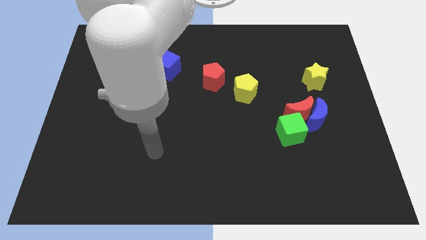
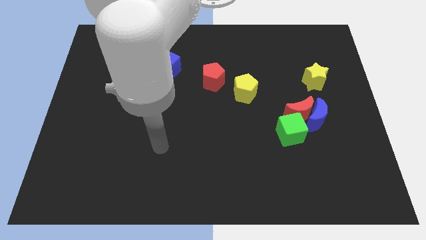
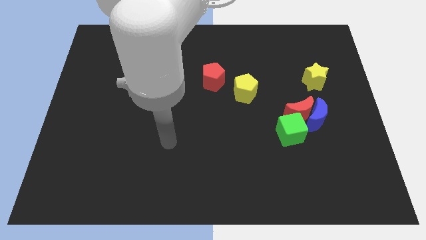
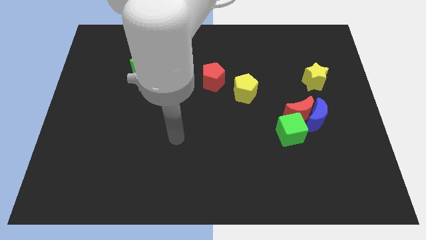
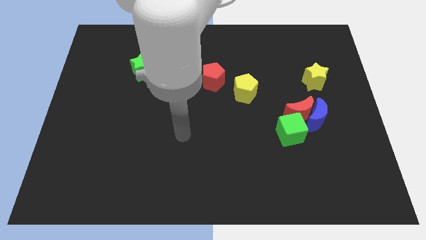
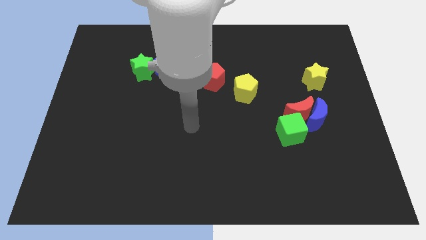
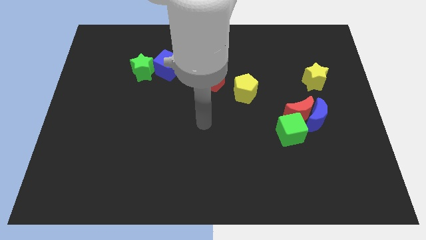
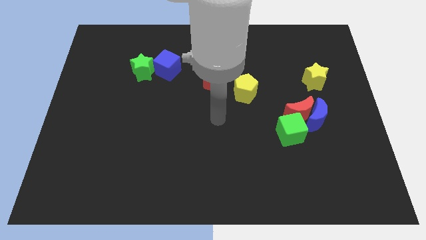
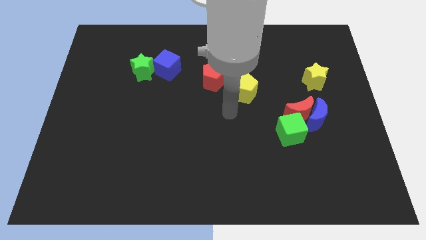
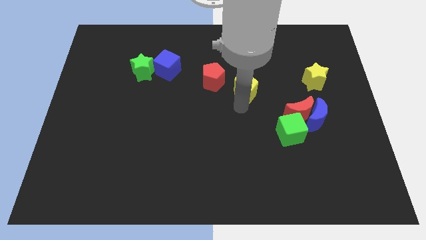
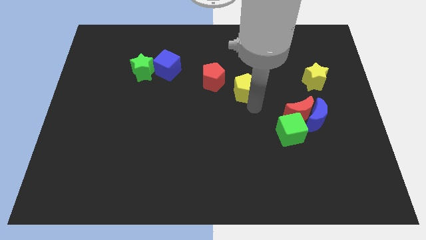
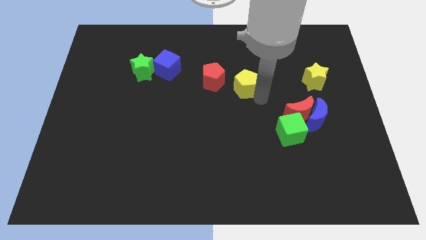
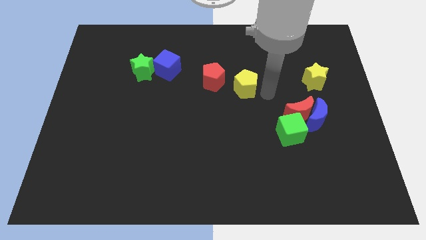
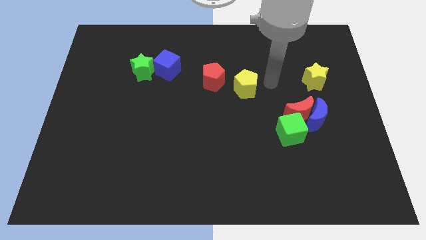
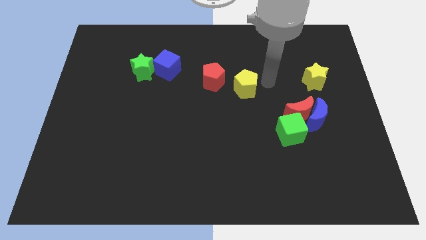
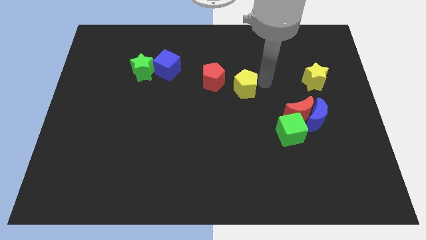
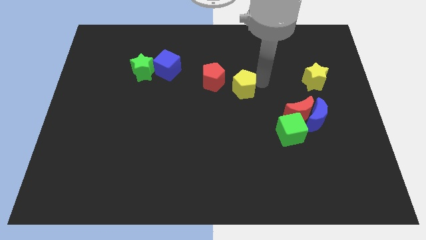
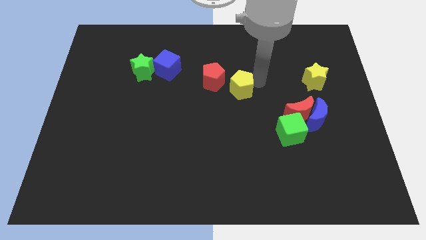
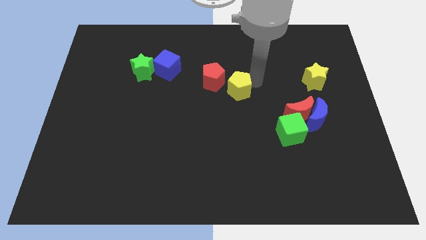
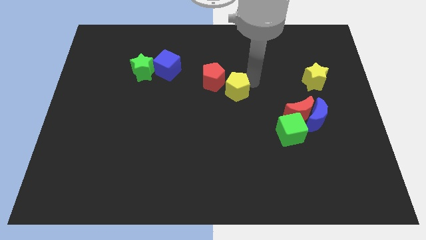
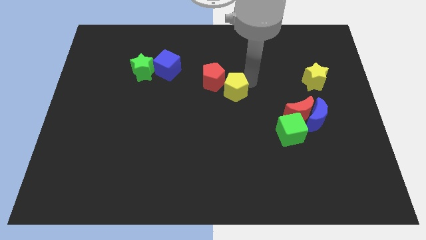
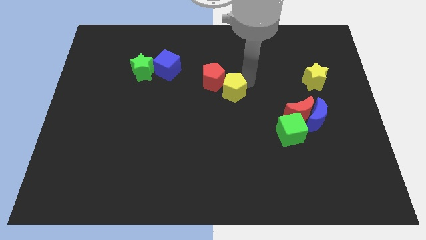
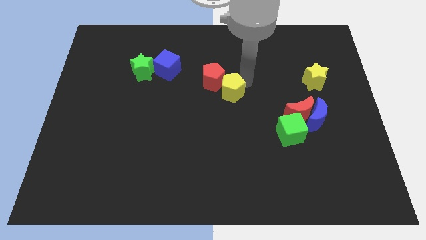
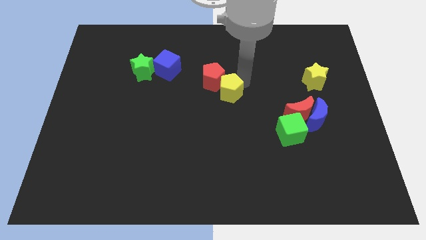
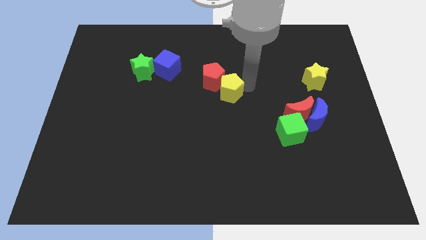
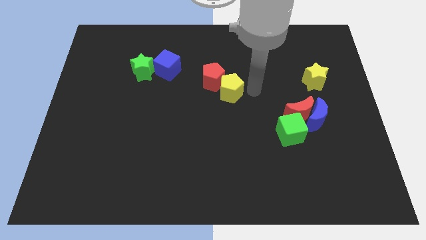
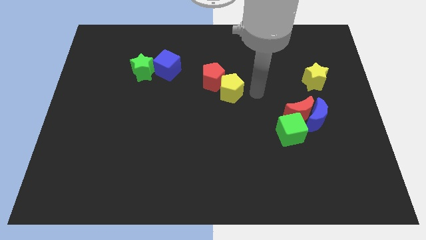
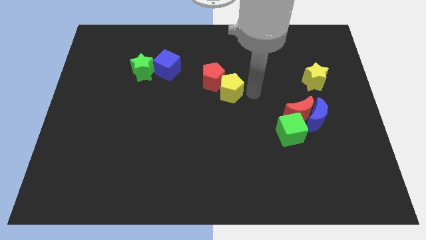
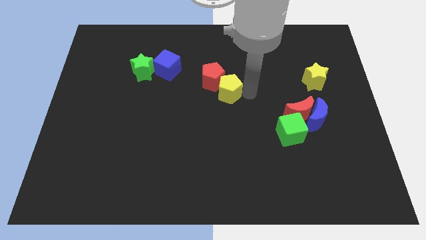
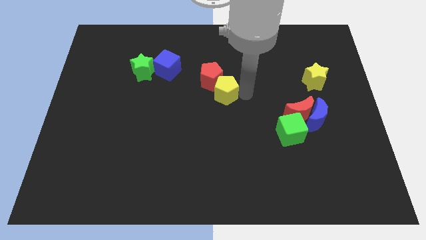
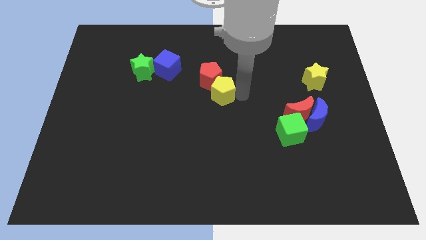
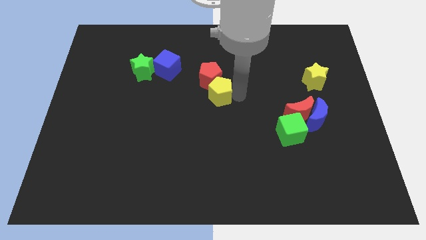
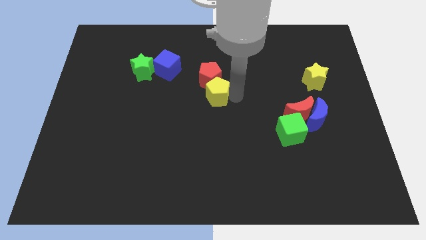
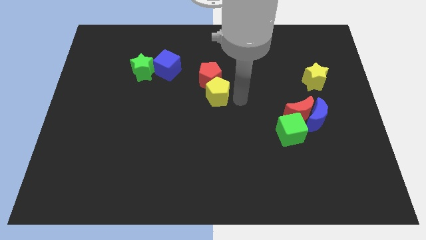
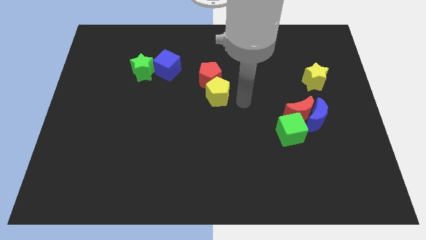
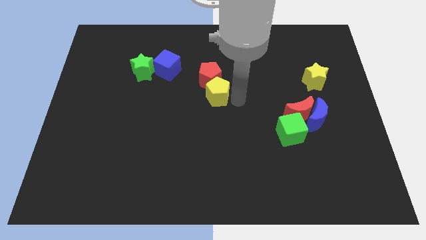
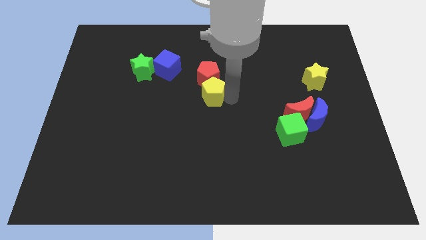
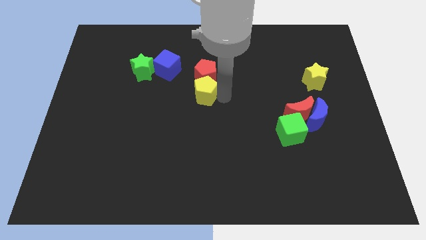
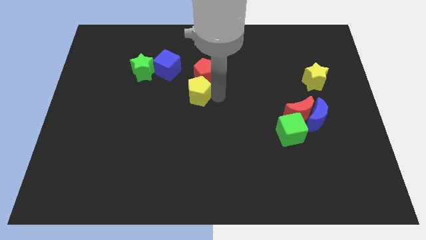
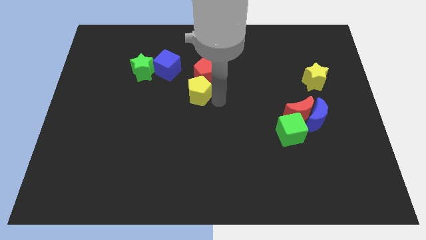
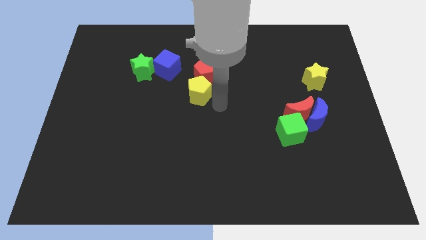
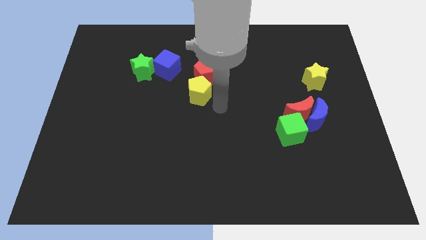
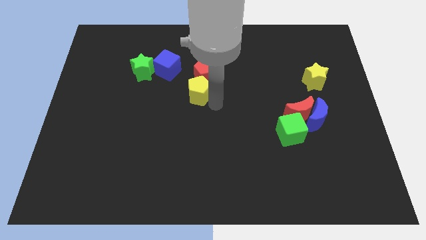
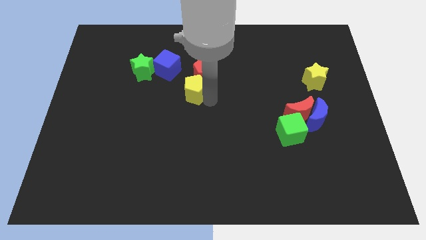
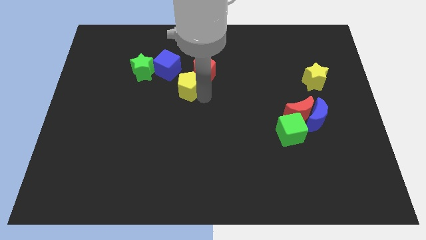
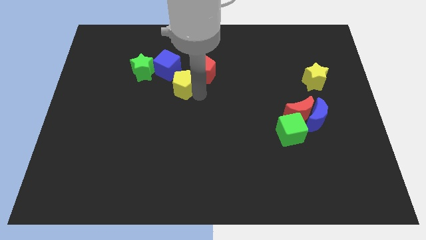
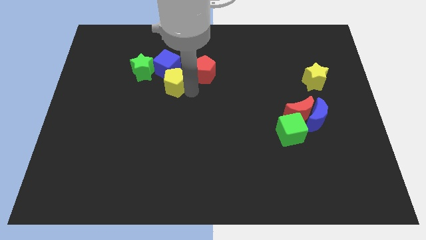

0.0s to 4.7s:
slide the yellow pentagon next to the blue cube

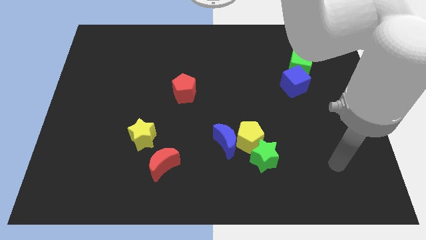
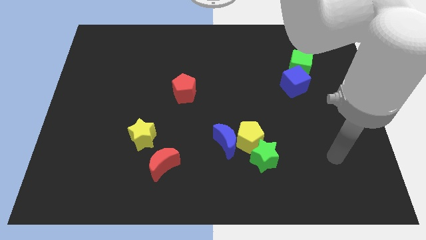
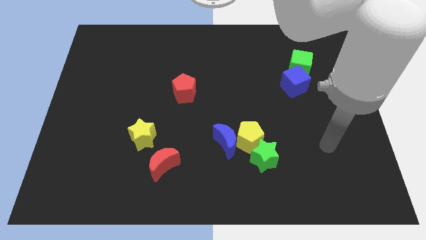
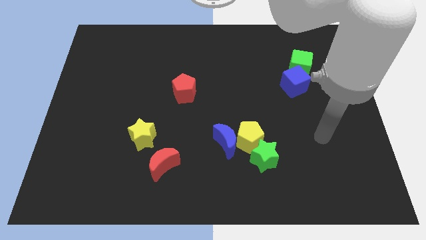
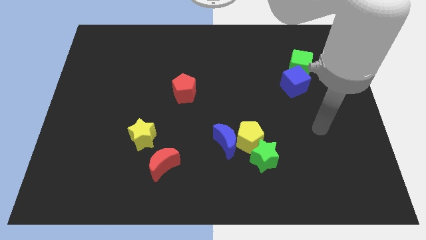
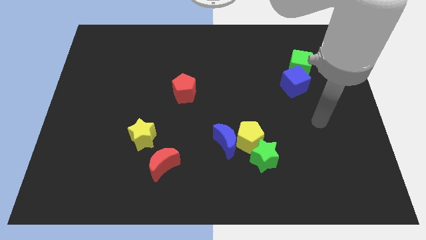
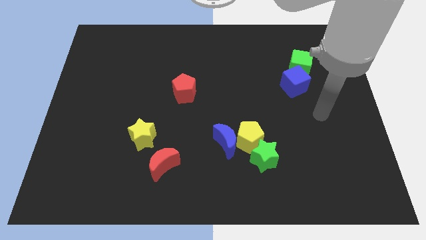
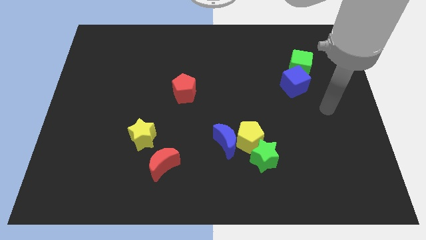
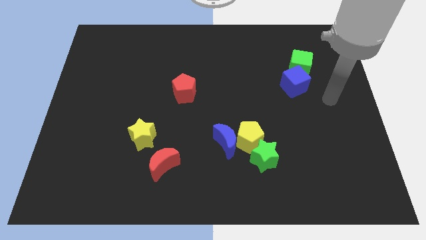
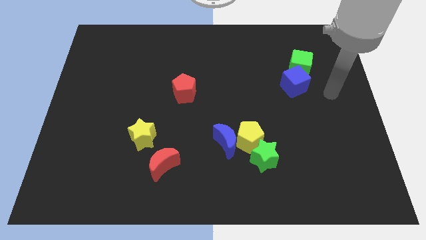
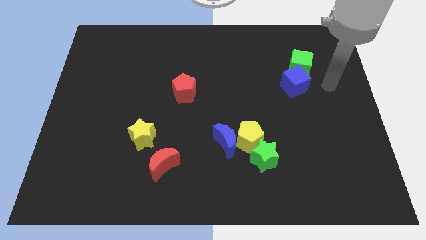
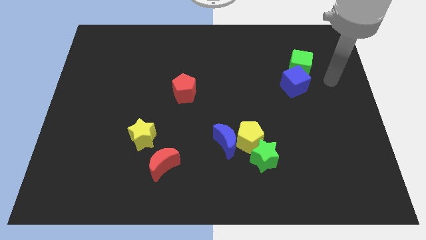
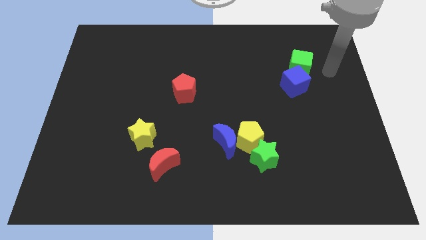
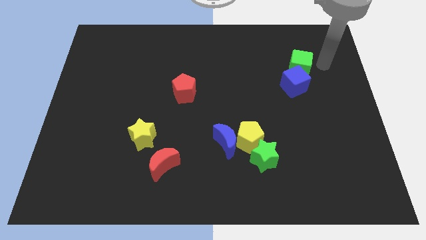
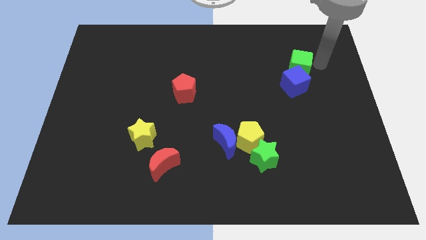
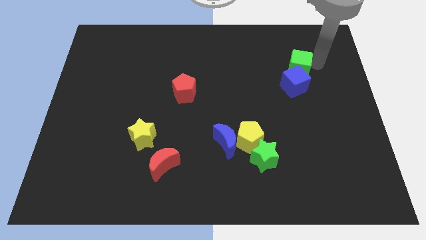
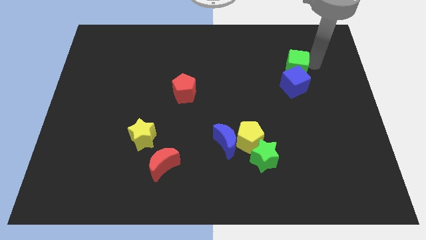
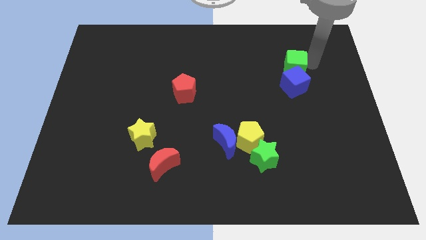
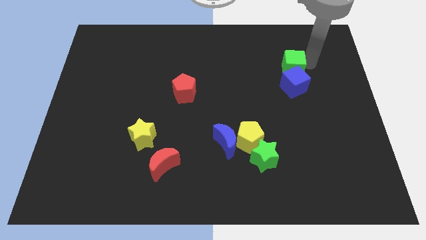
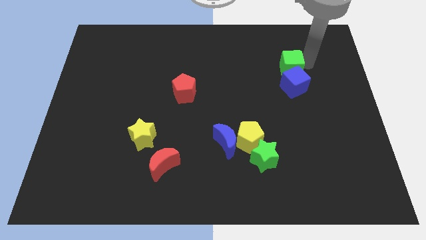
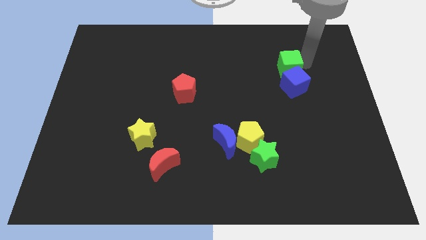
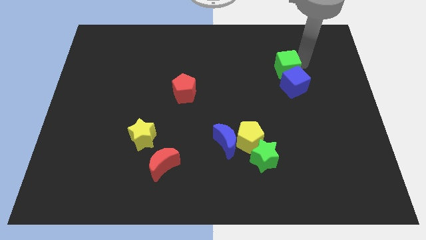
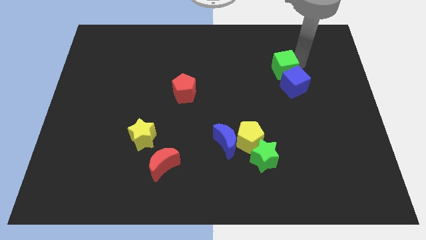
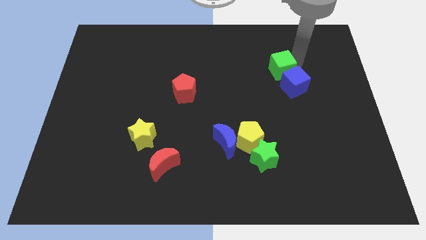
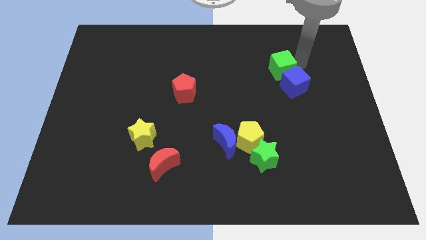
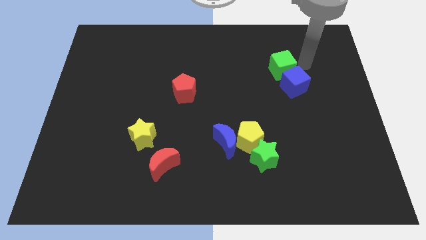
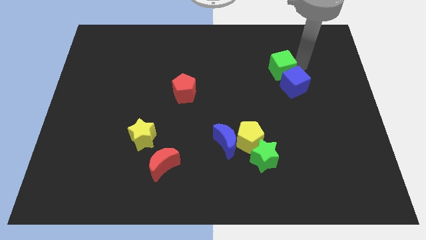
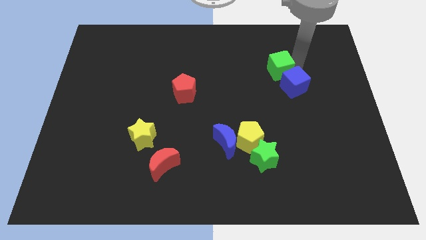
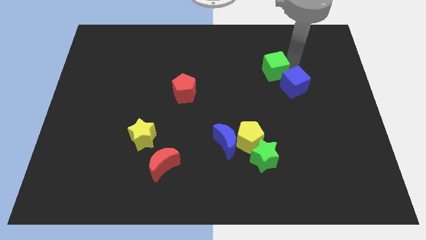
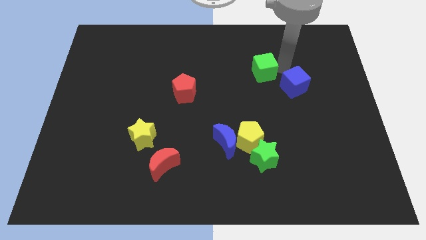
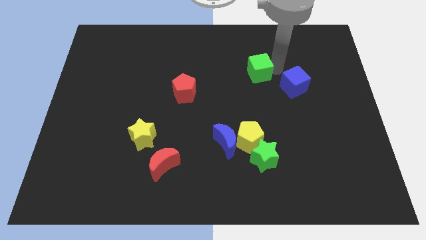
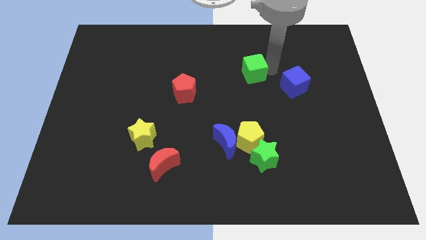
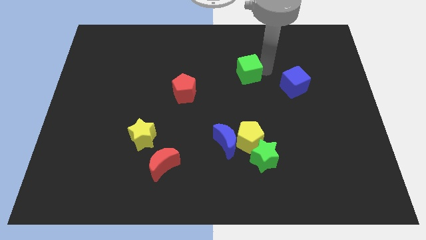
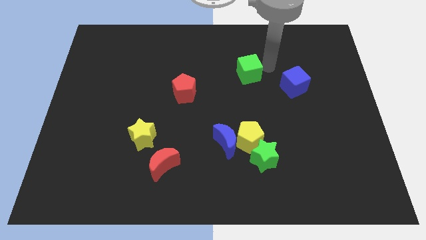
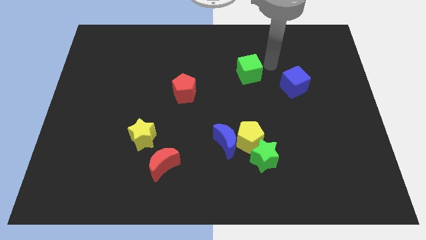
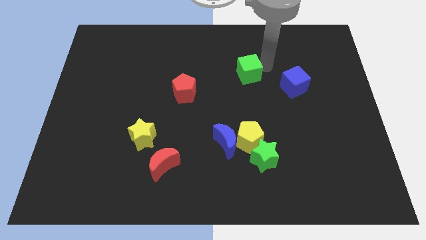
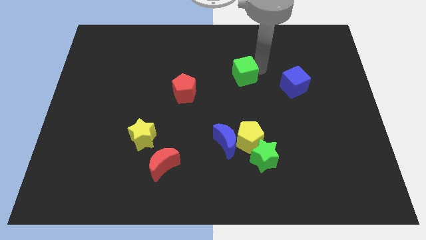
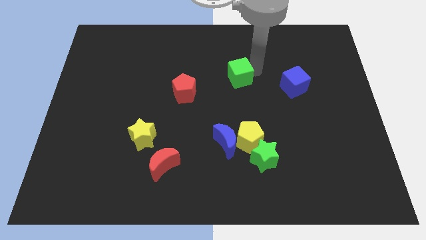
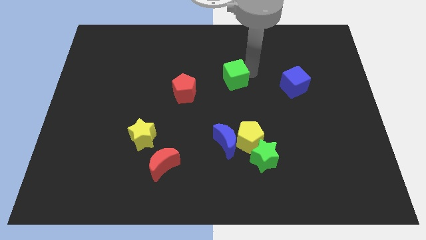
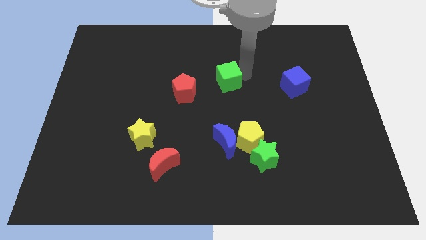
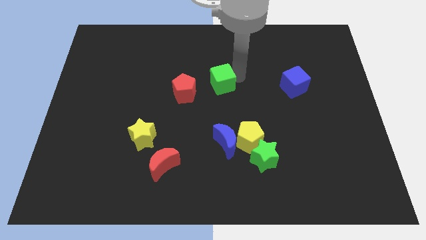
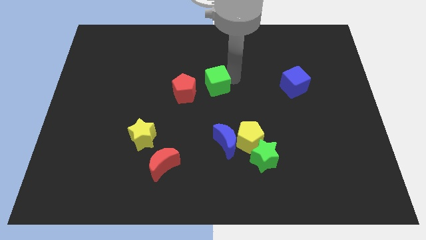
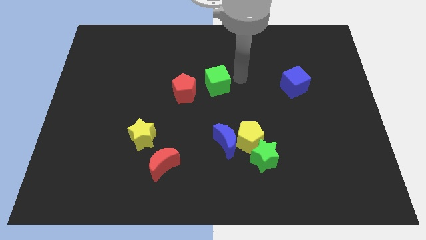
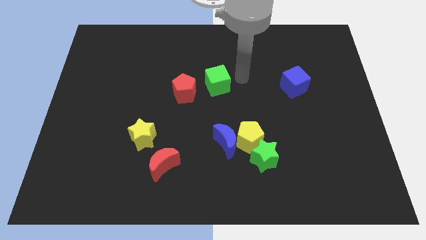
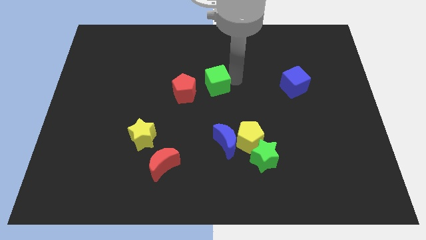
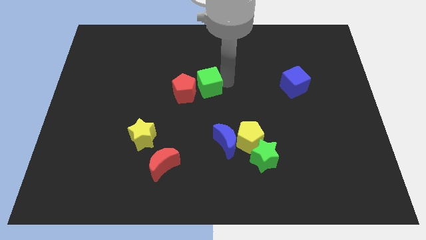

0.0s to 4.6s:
move the green cube close to the red pentagon
